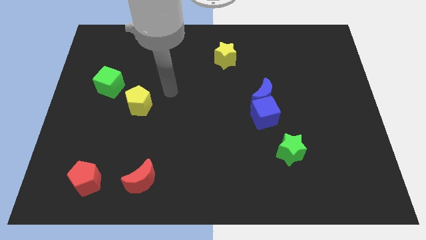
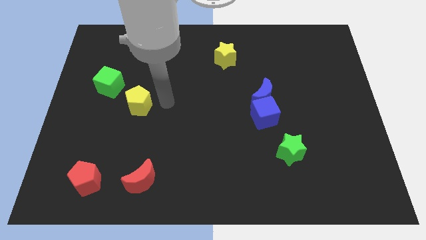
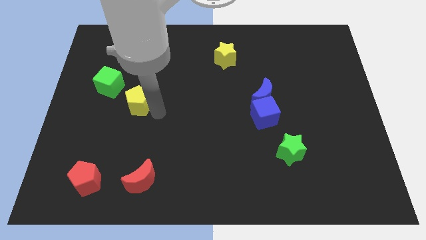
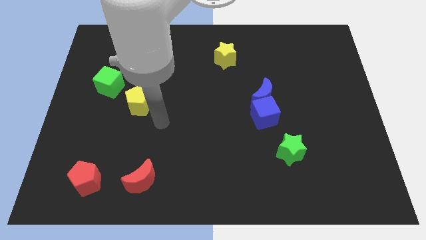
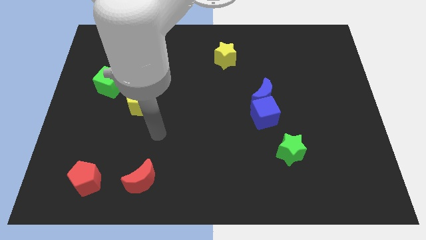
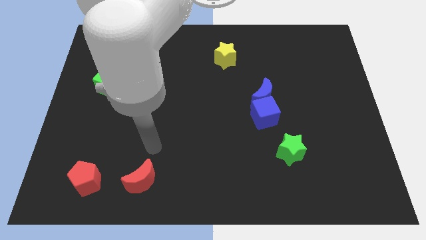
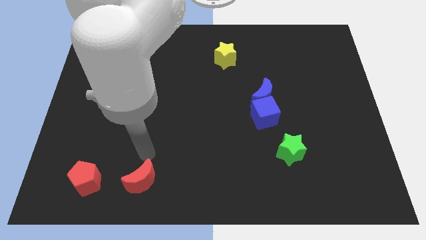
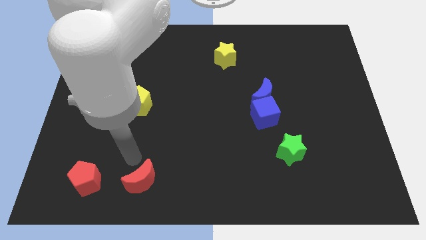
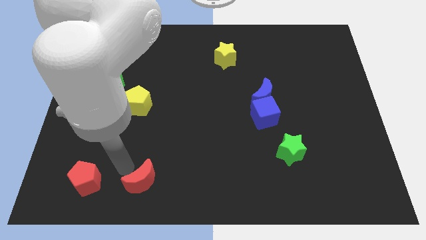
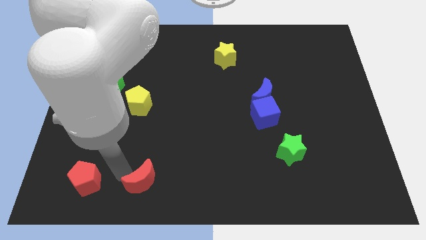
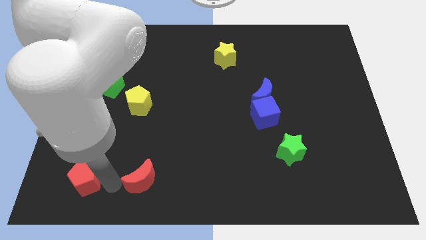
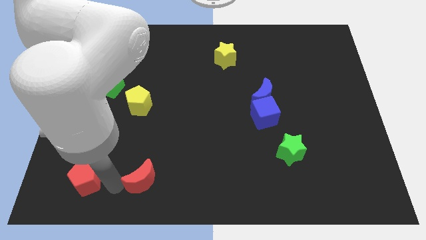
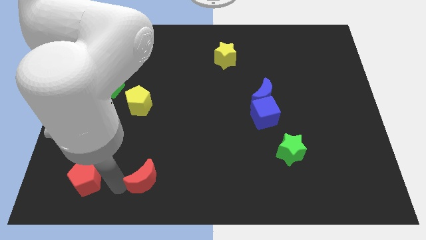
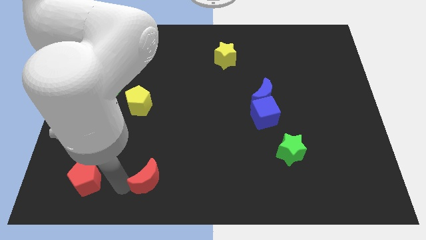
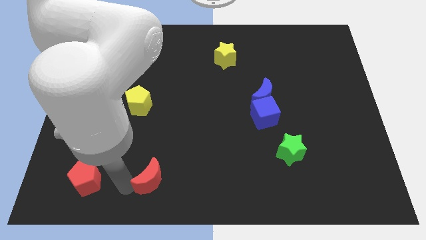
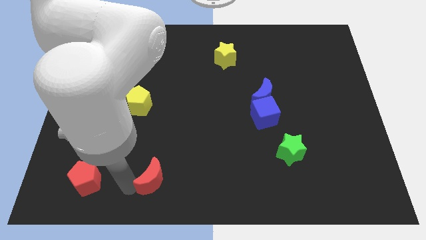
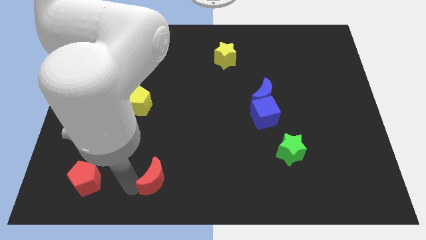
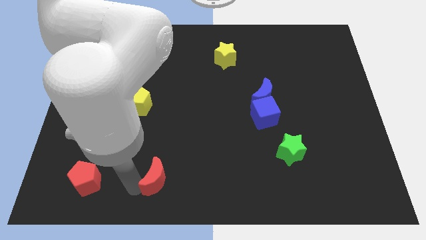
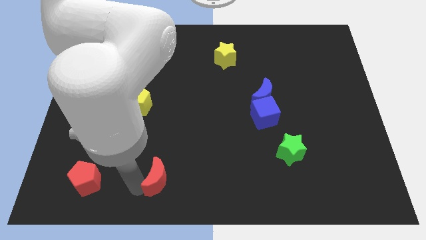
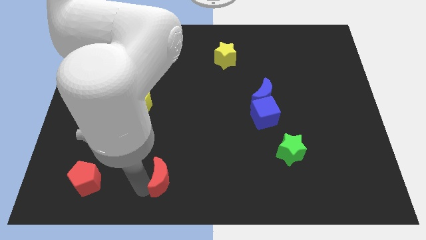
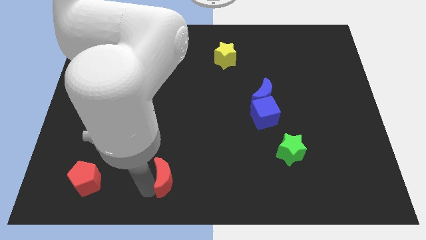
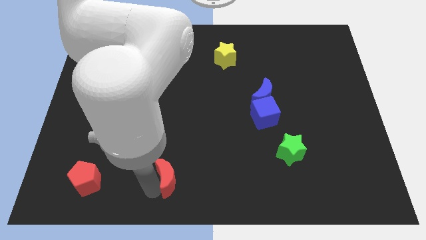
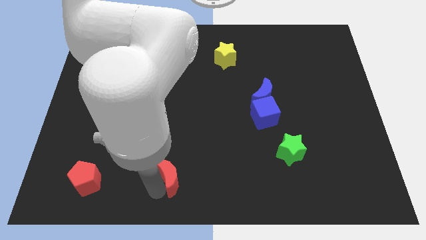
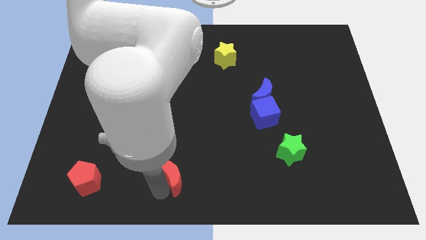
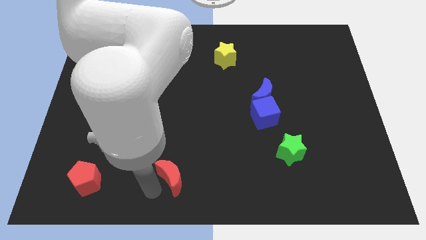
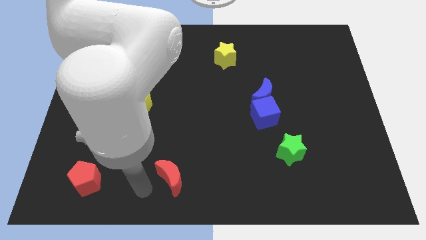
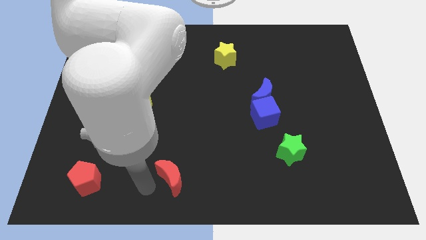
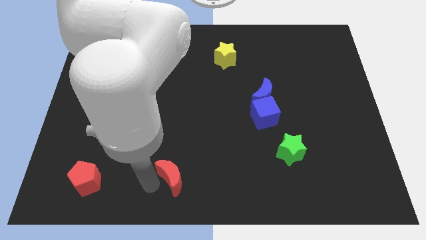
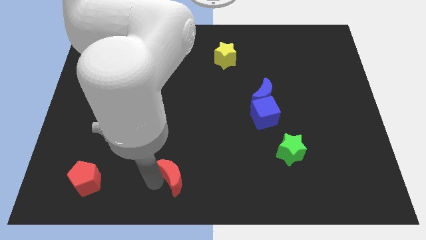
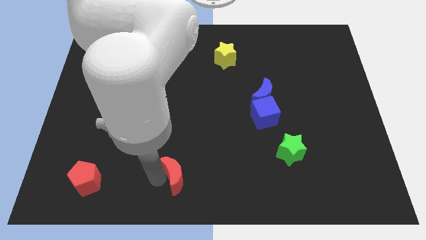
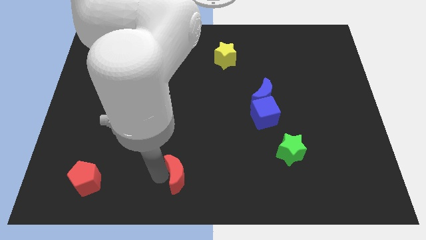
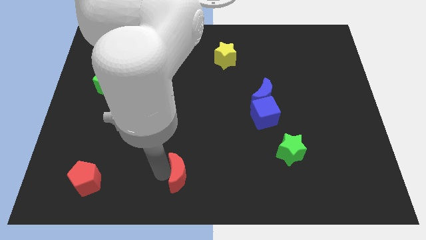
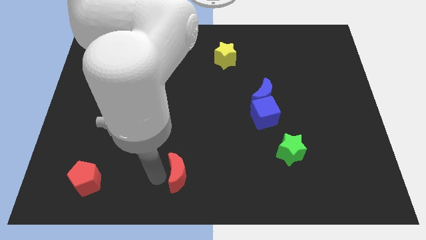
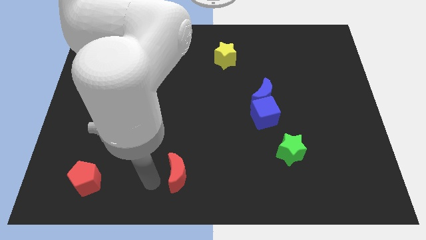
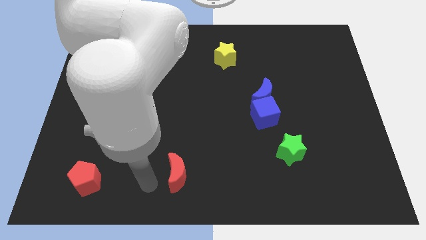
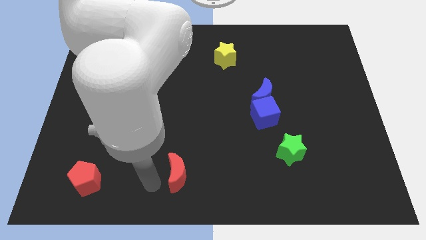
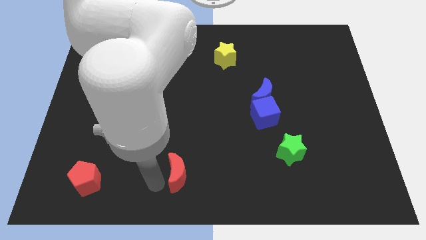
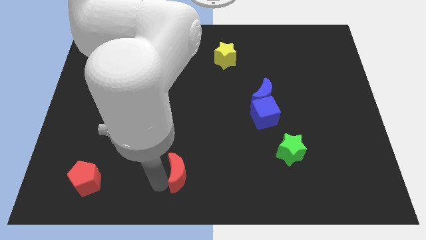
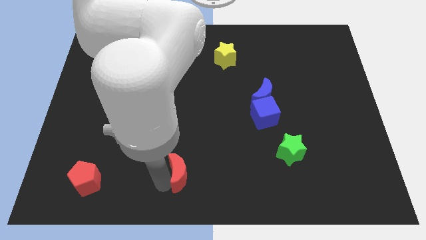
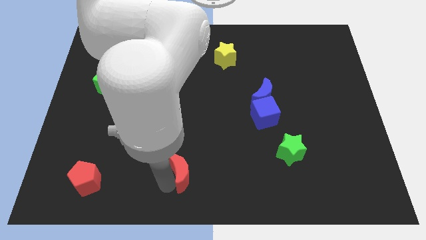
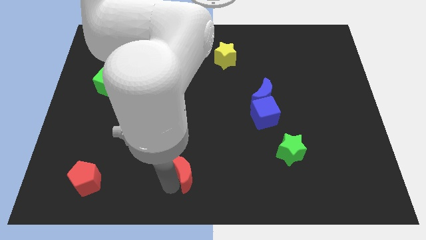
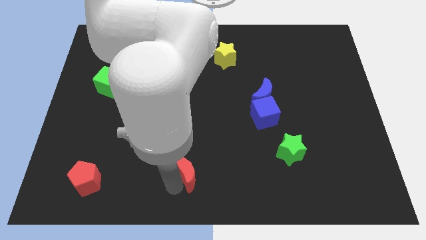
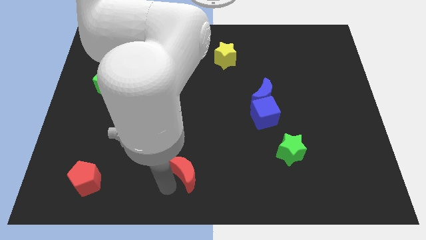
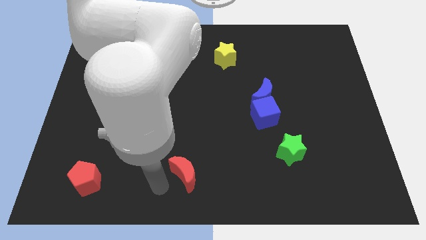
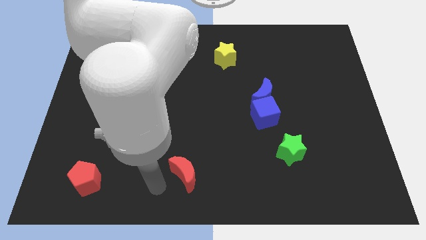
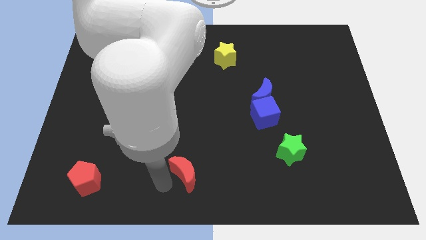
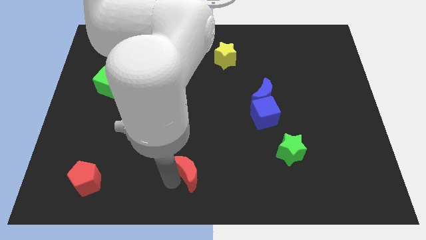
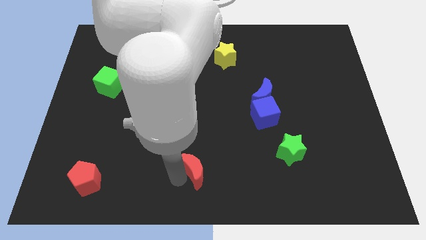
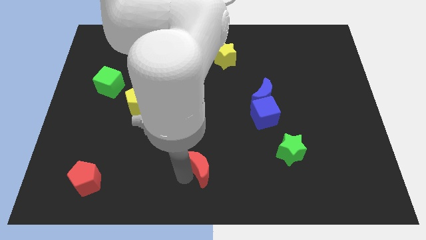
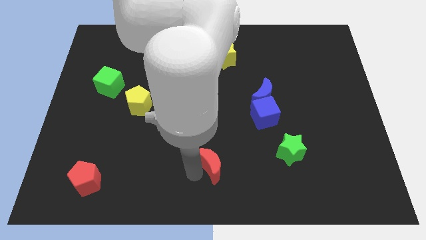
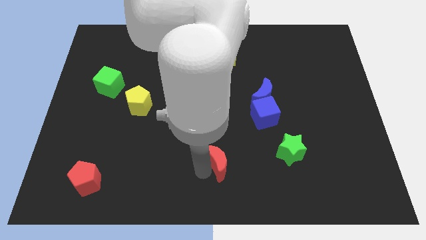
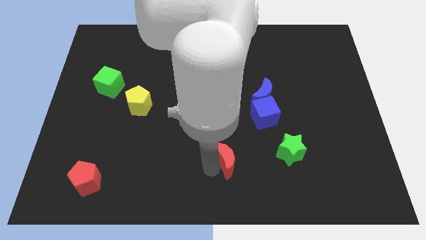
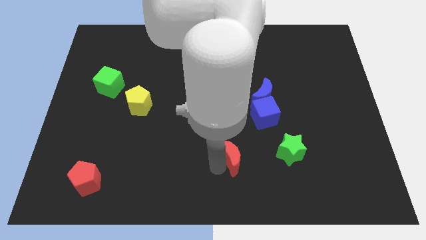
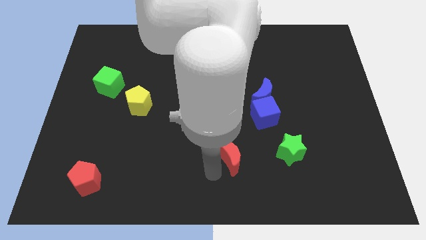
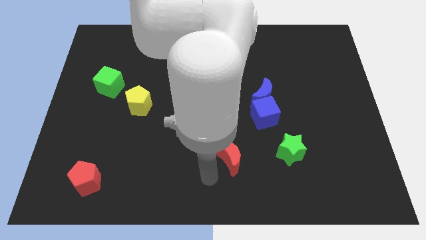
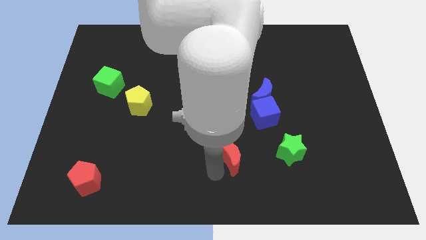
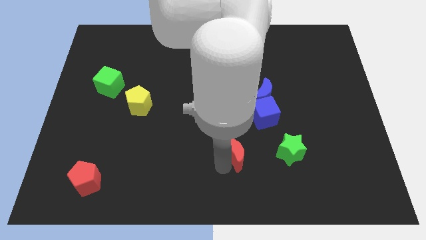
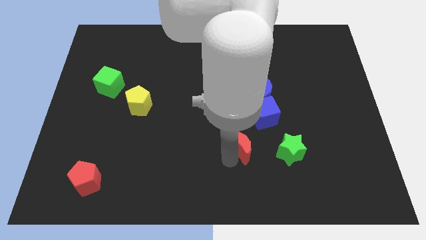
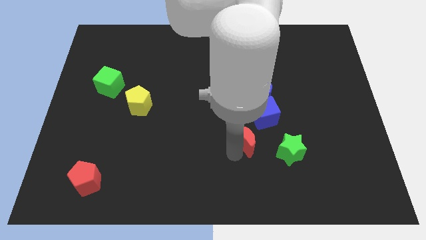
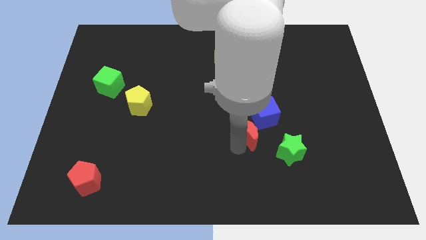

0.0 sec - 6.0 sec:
slide the red moon to the top left of the green star

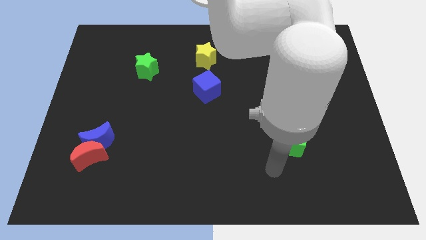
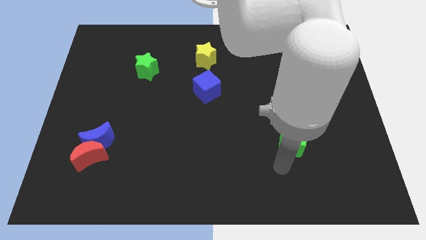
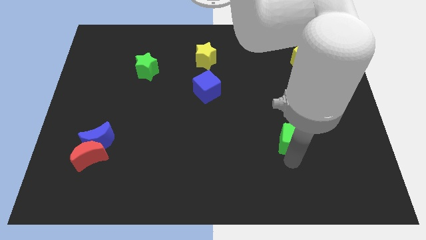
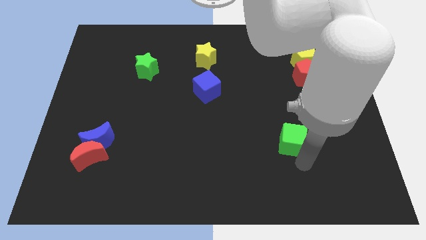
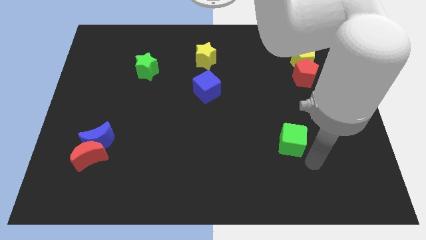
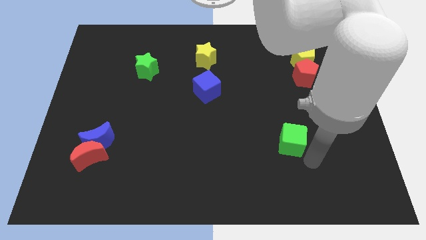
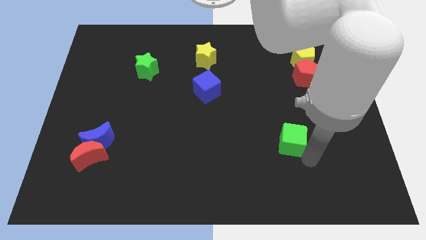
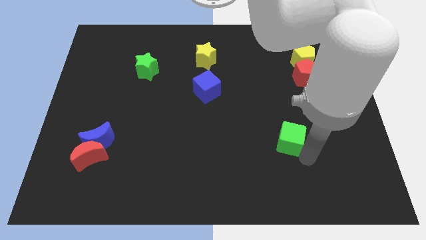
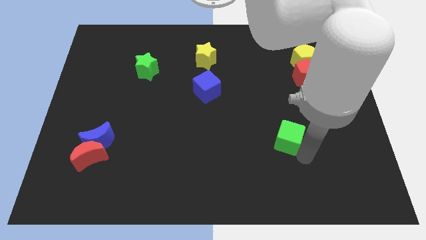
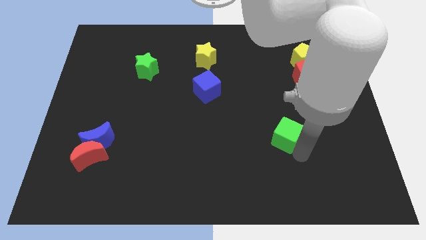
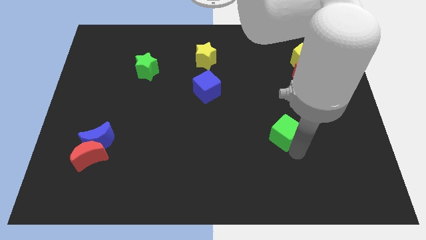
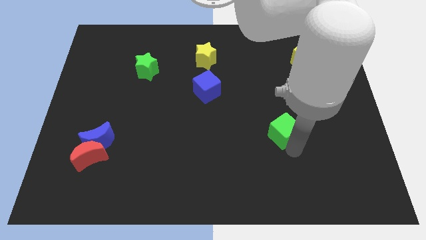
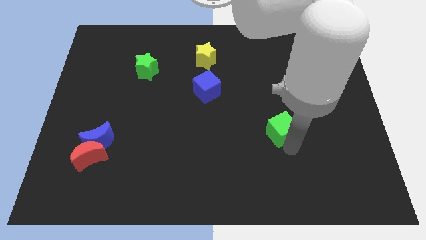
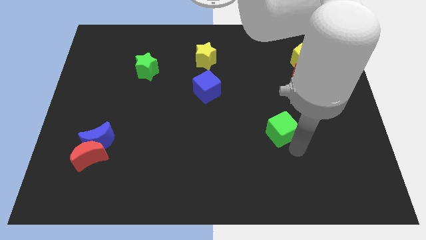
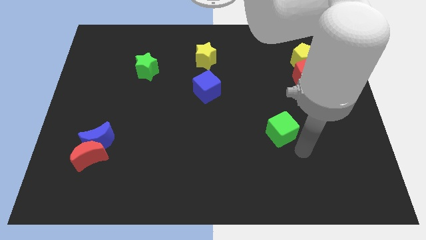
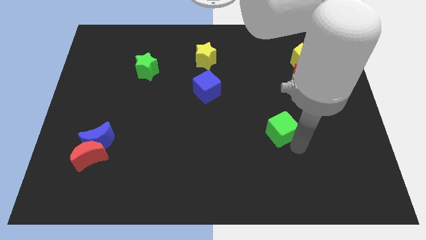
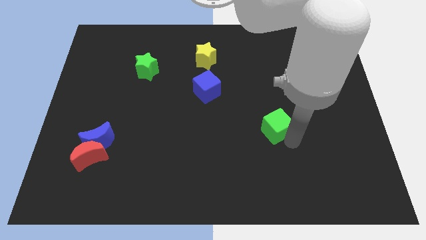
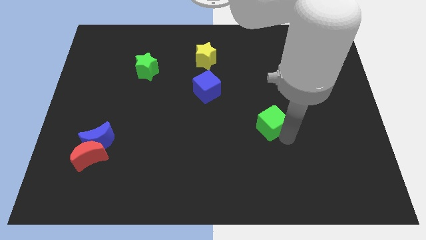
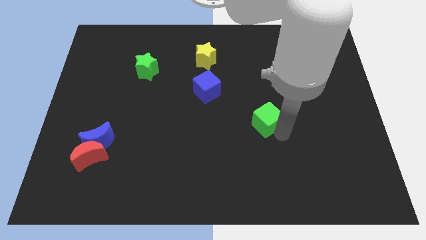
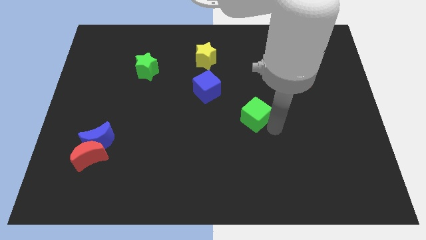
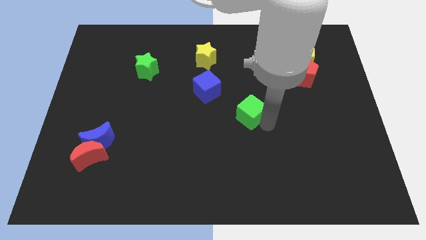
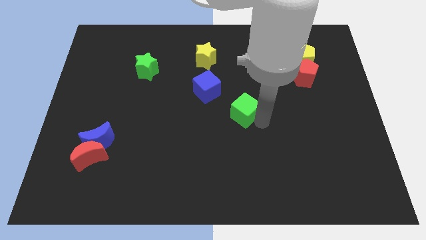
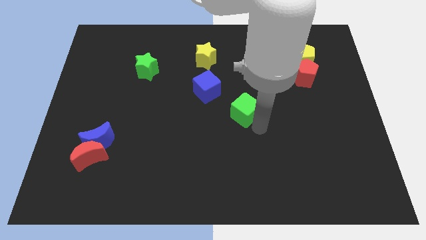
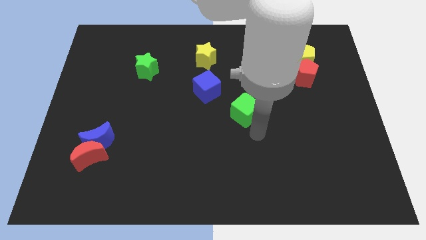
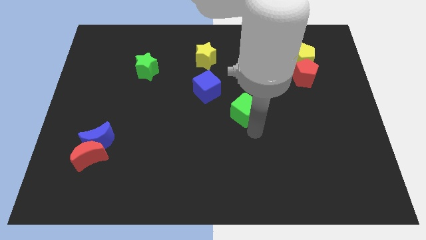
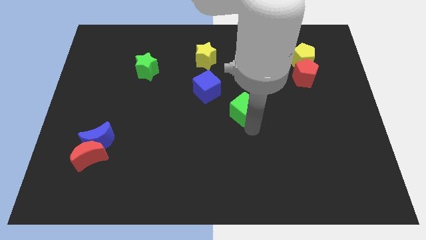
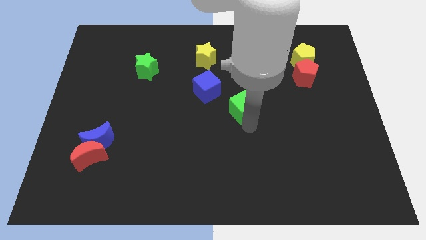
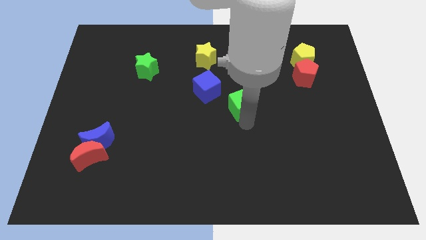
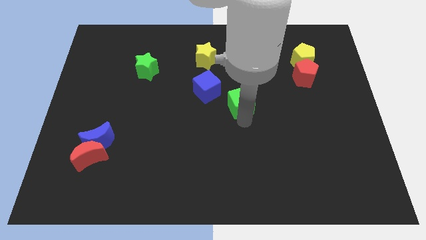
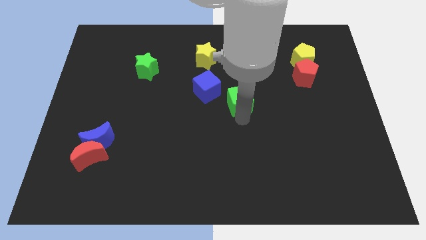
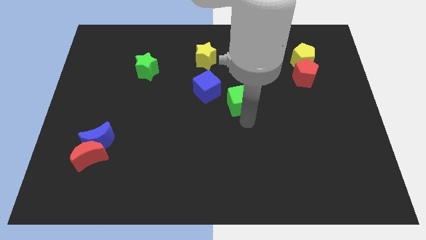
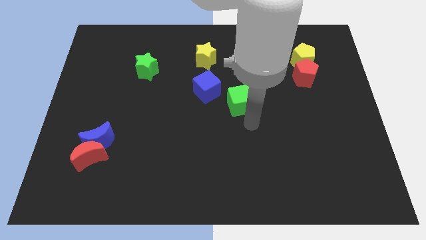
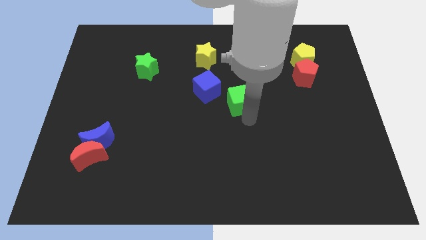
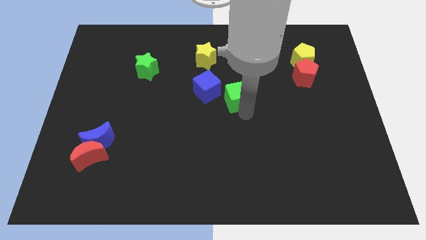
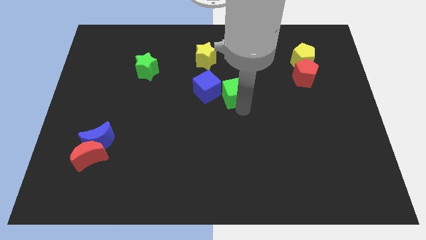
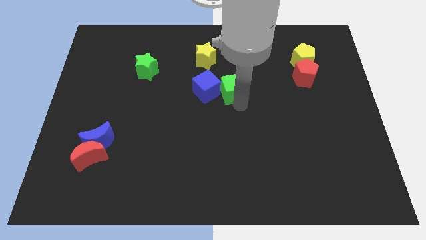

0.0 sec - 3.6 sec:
slide the green cube to the top right of the blue cube
